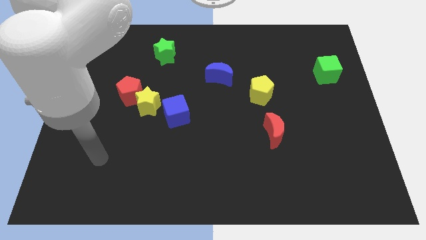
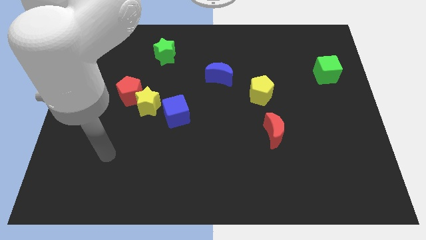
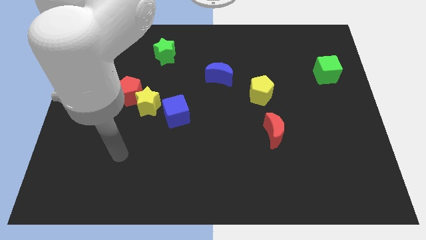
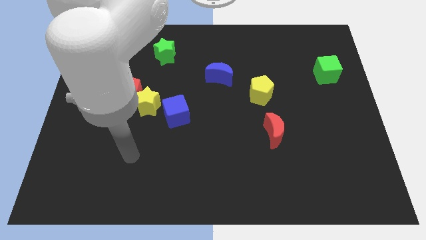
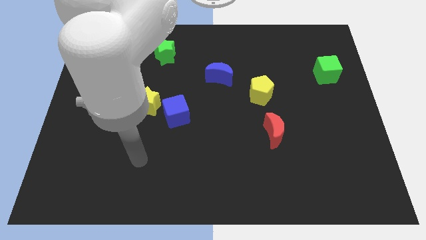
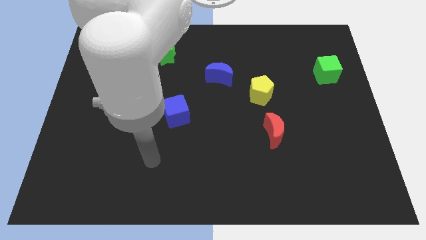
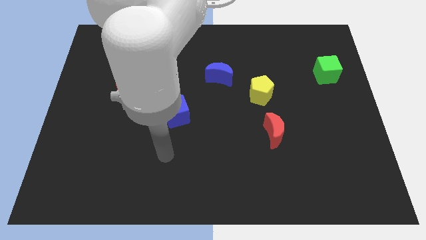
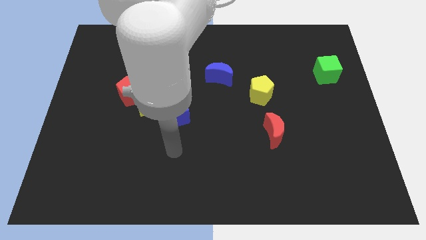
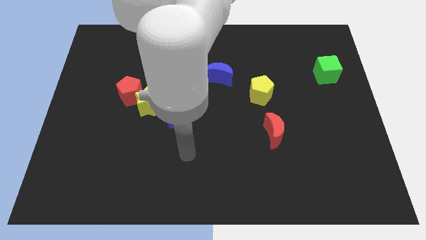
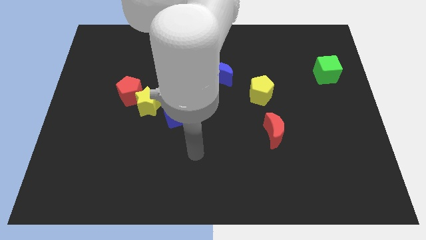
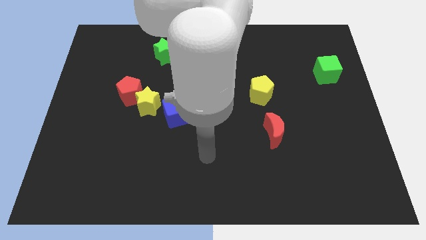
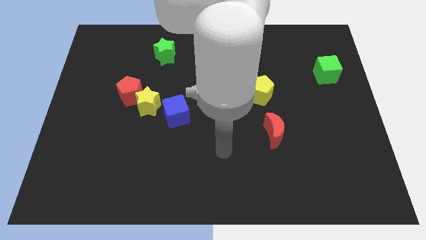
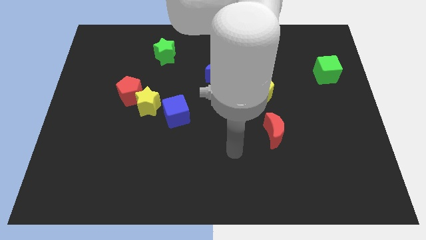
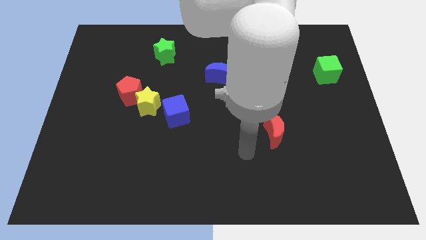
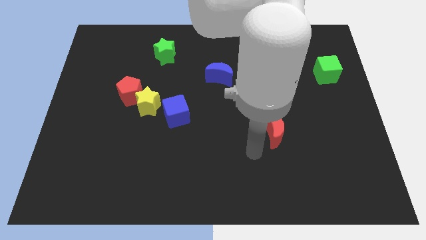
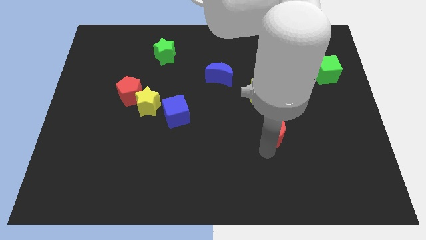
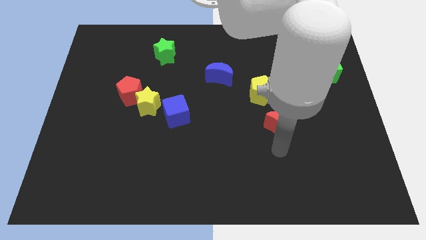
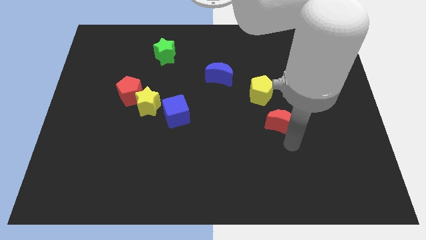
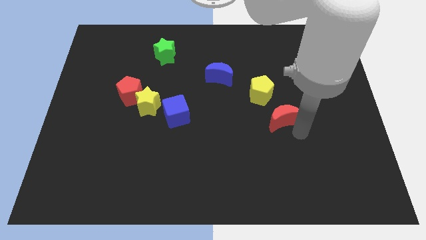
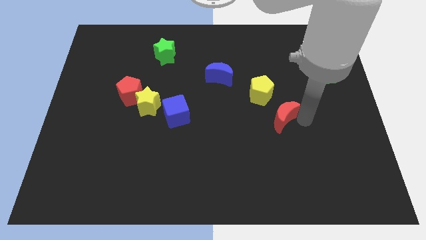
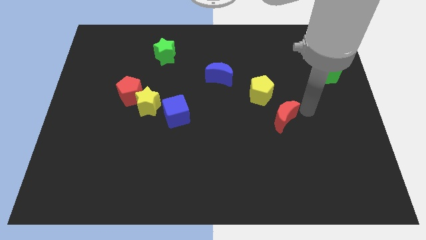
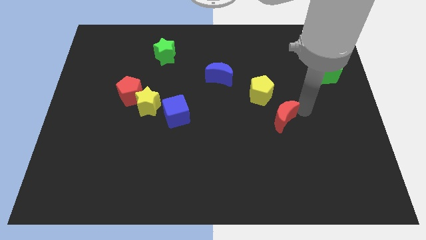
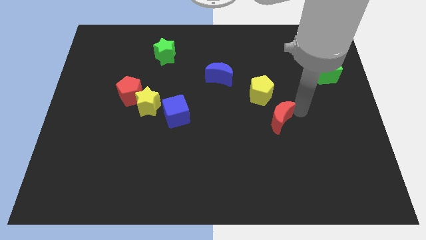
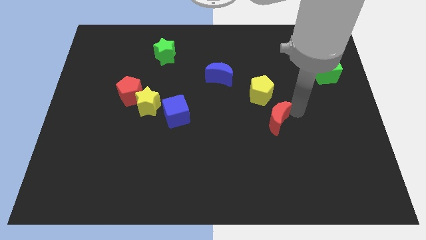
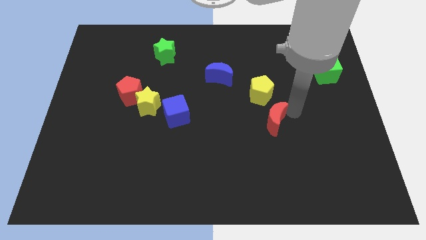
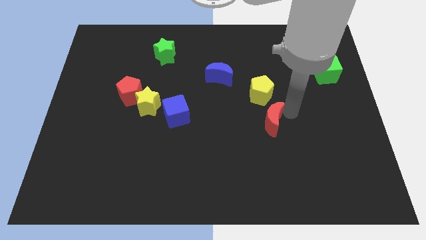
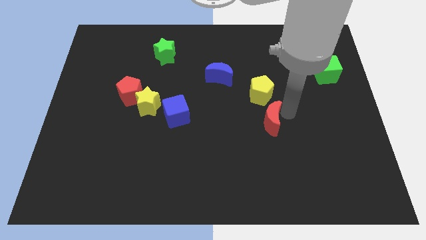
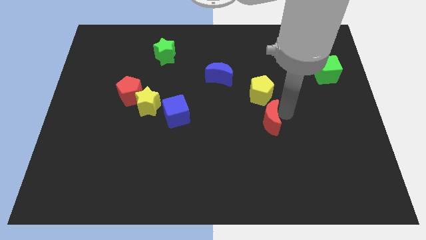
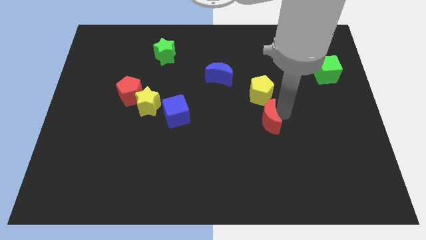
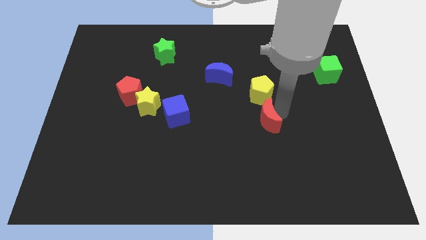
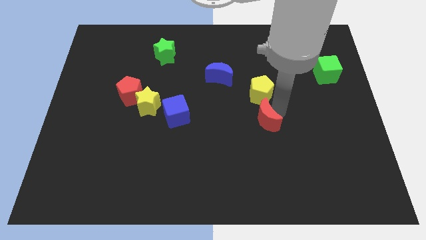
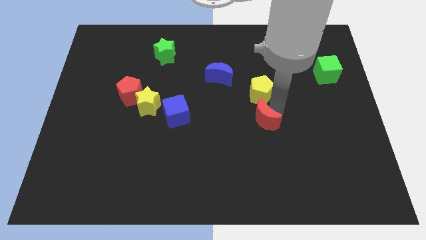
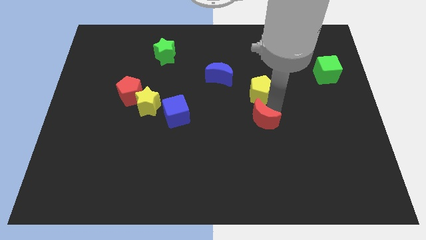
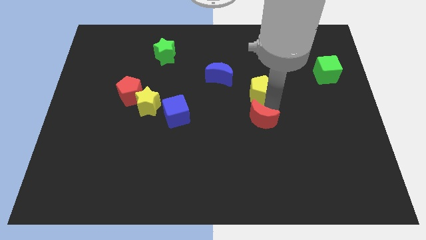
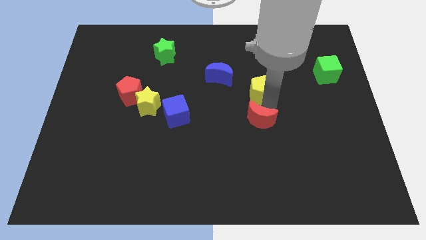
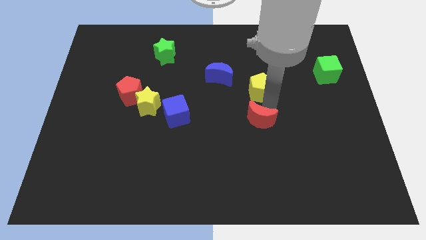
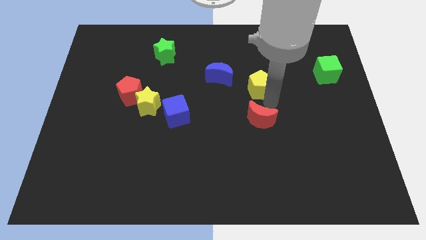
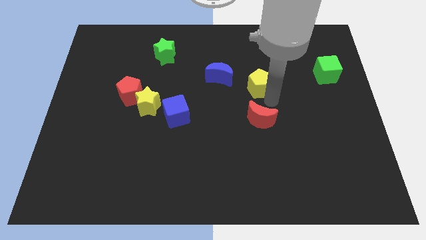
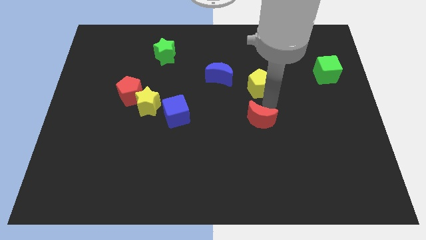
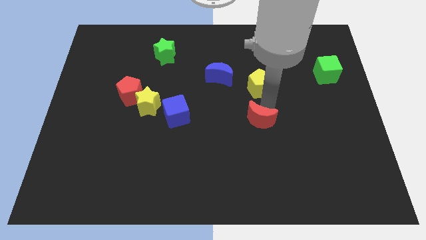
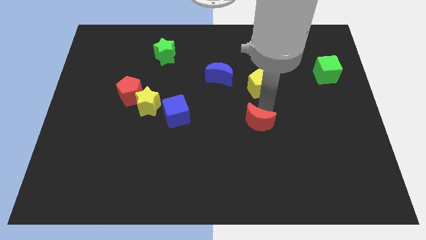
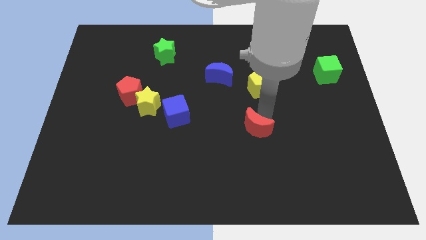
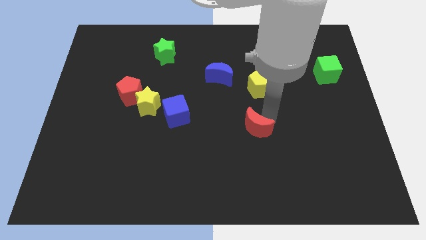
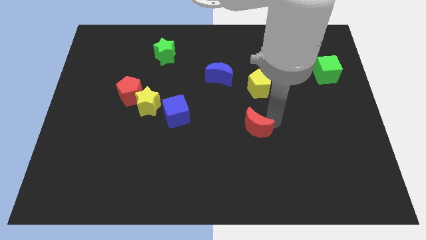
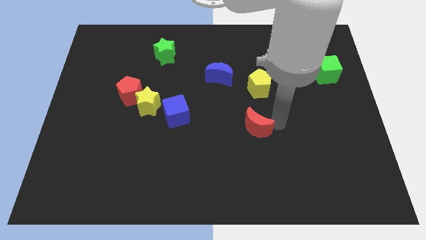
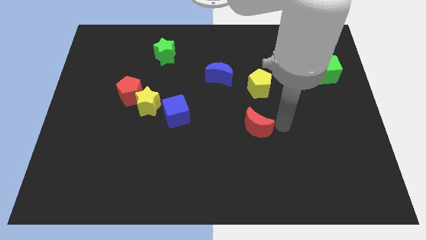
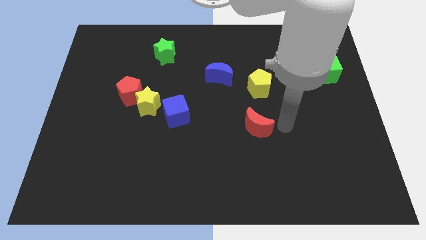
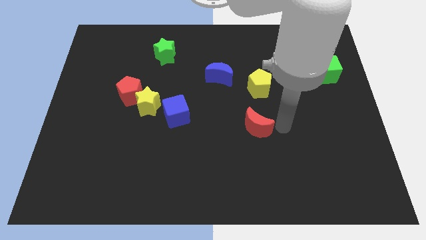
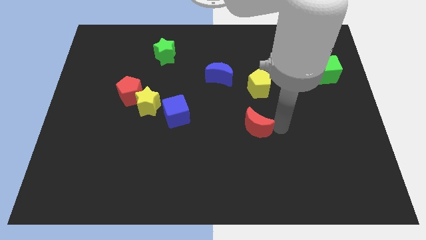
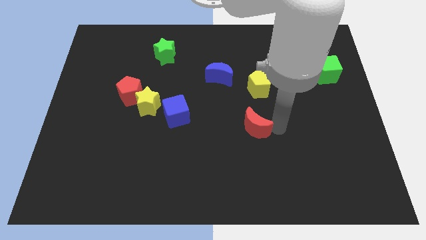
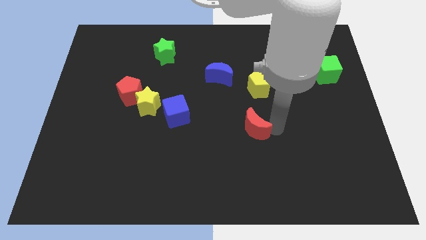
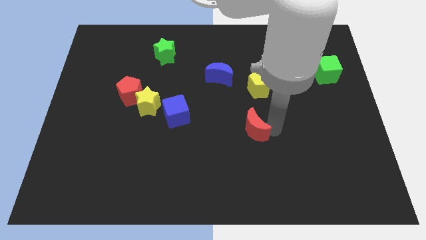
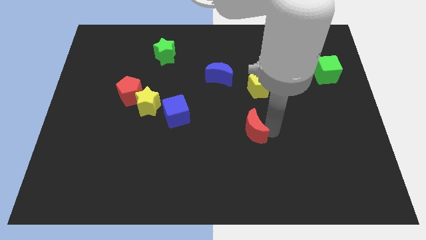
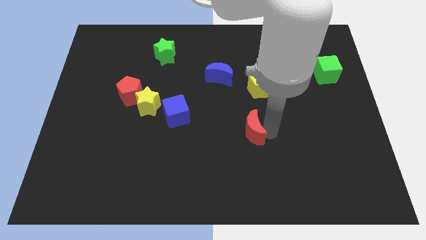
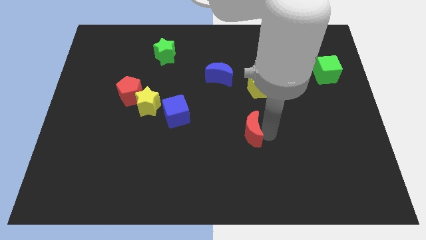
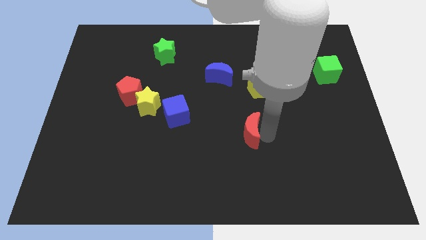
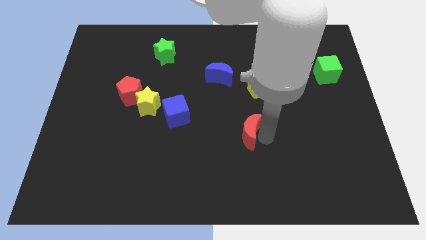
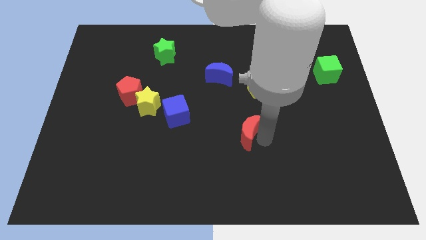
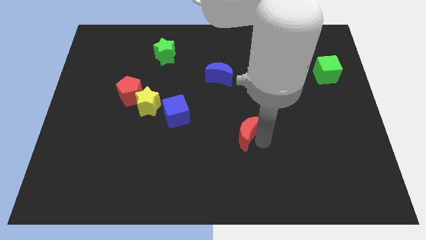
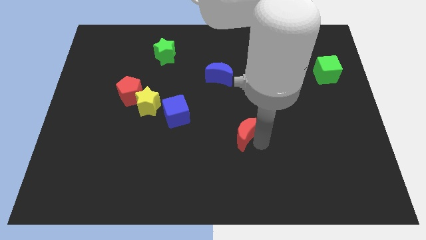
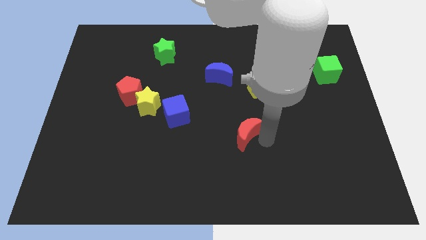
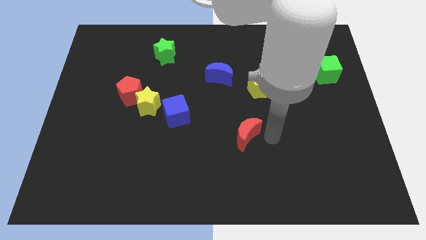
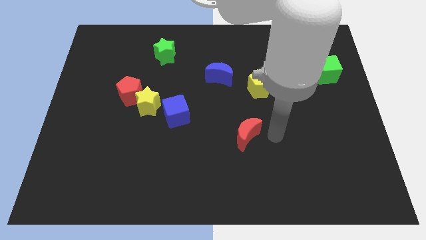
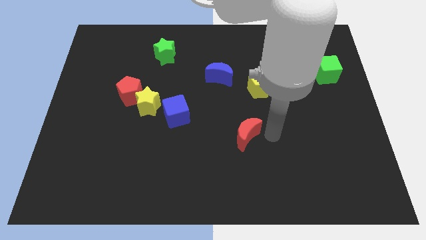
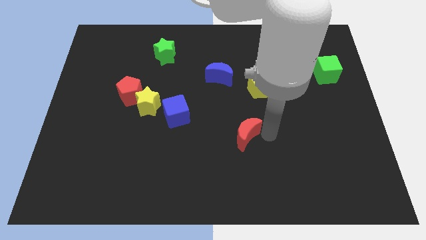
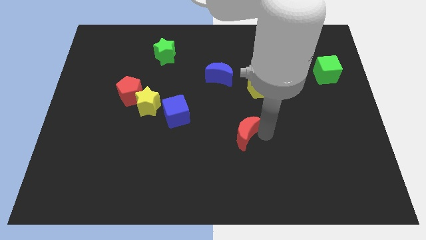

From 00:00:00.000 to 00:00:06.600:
move the red moon to the left a little

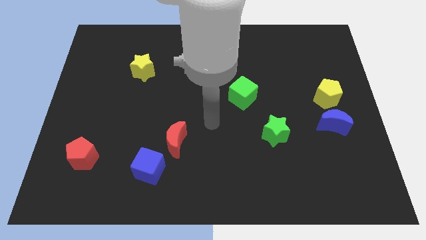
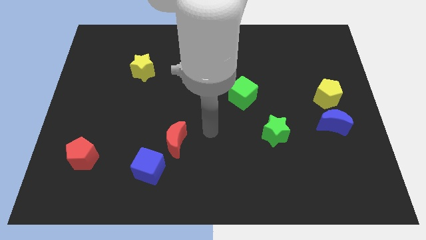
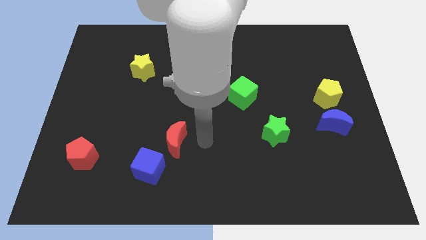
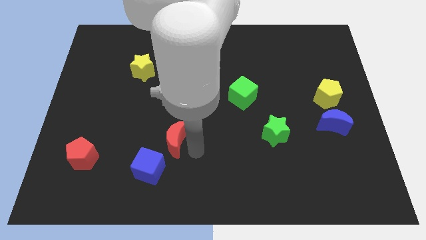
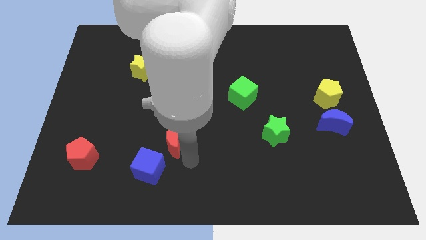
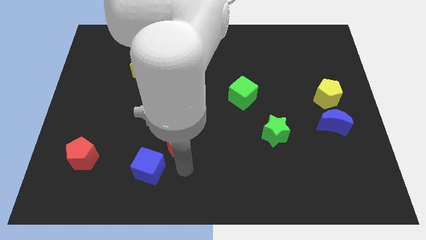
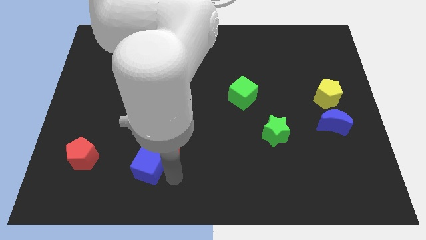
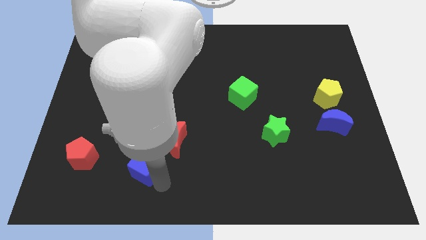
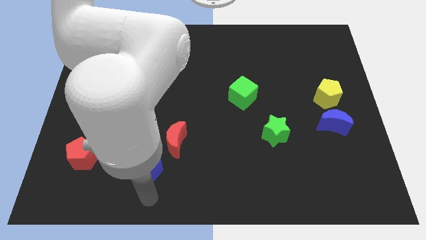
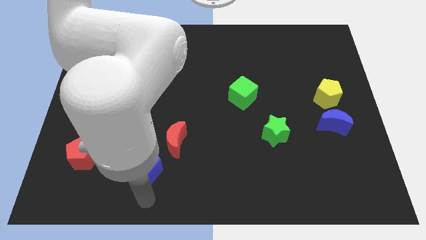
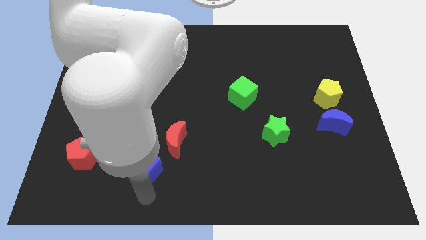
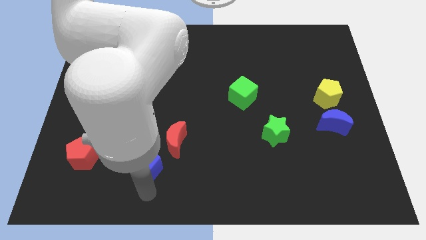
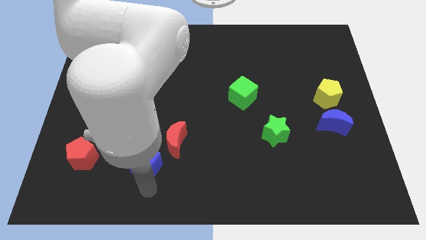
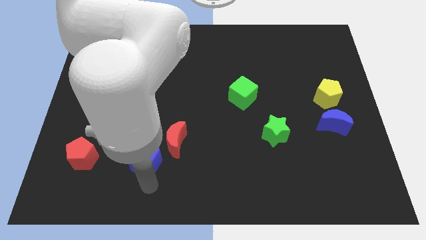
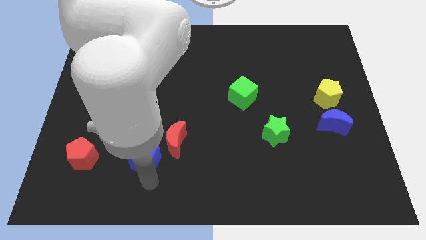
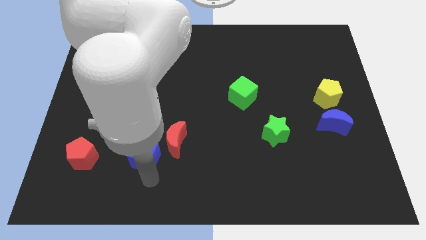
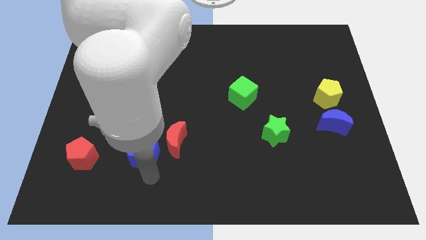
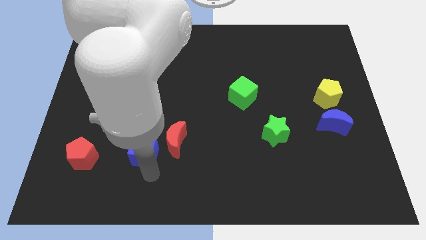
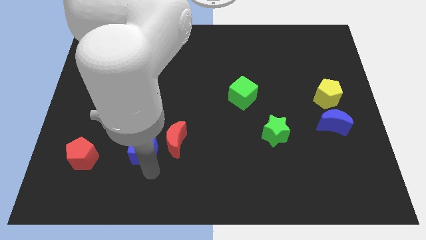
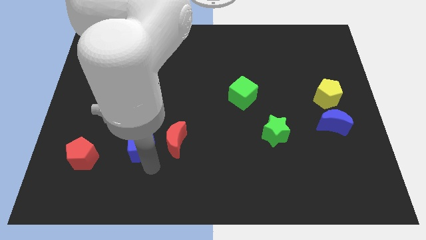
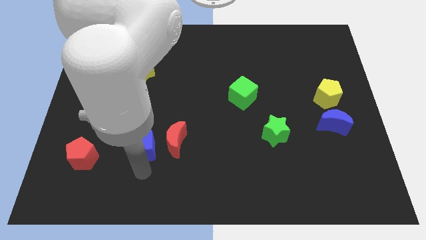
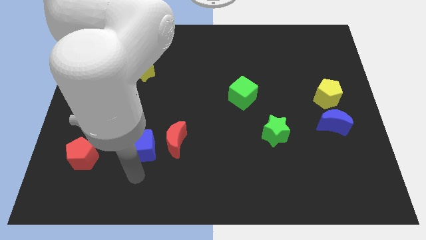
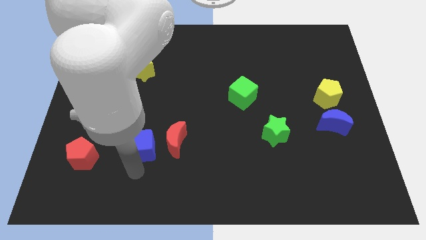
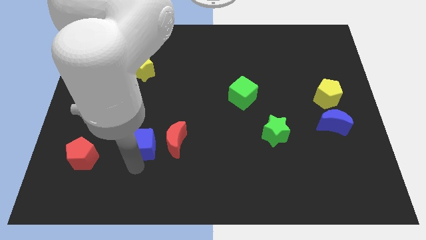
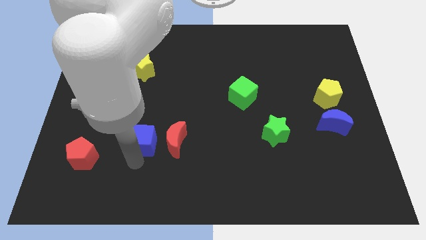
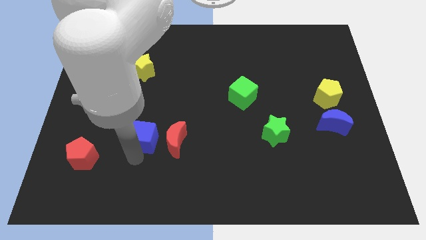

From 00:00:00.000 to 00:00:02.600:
slightly push the blue cube up
